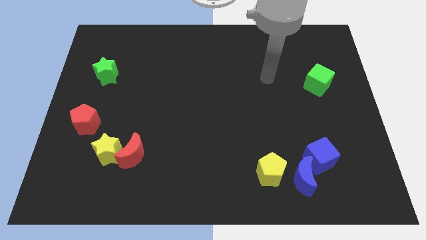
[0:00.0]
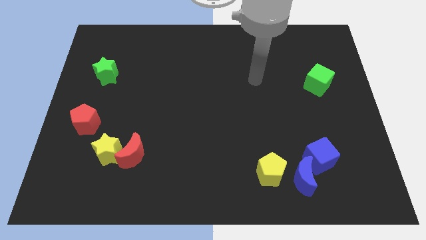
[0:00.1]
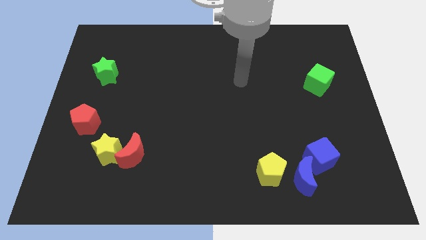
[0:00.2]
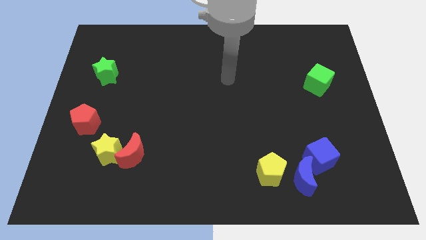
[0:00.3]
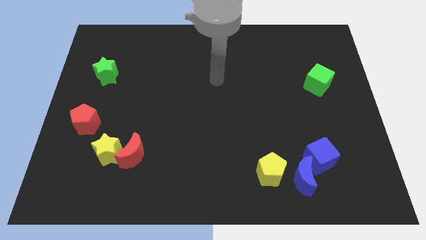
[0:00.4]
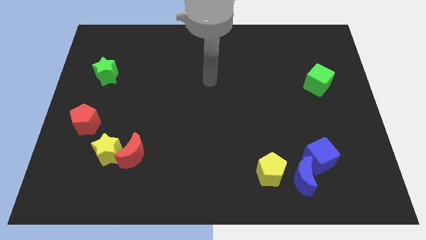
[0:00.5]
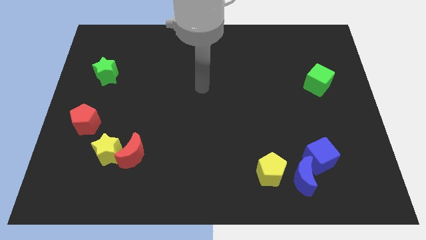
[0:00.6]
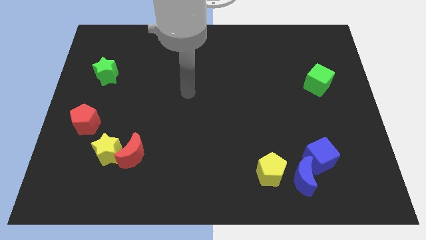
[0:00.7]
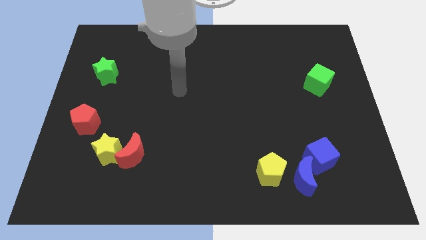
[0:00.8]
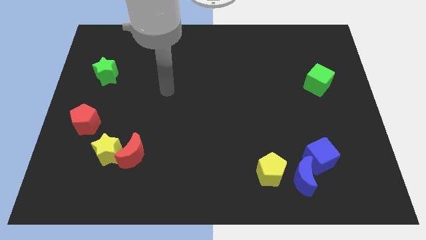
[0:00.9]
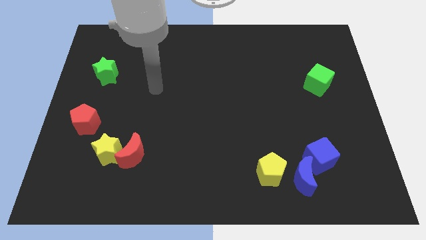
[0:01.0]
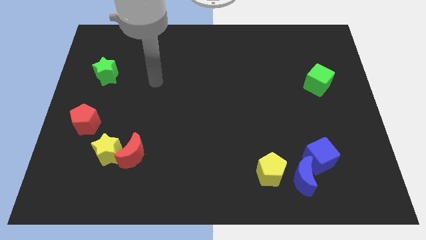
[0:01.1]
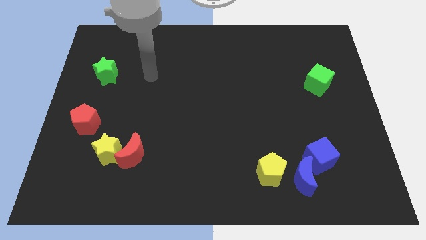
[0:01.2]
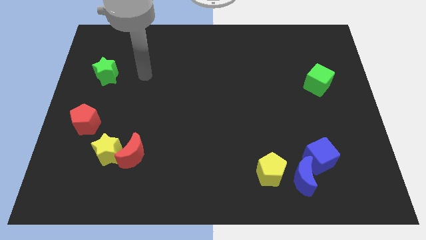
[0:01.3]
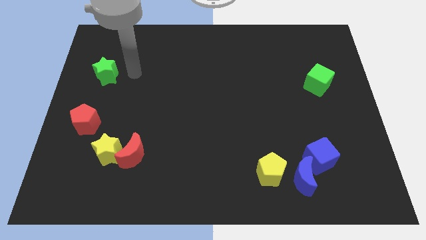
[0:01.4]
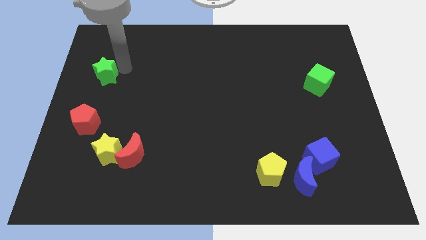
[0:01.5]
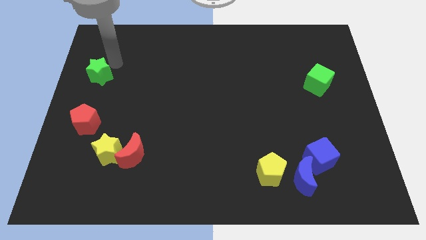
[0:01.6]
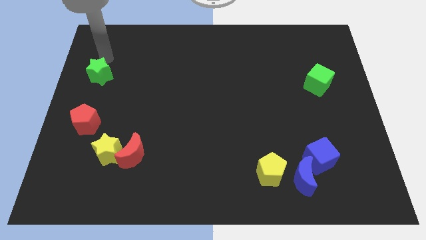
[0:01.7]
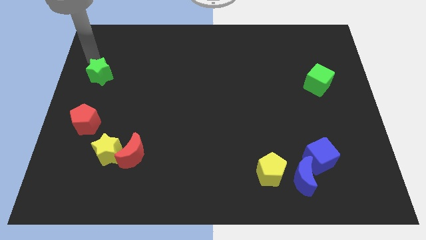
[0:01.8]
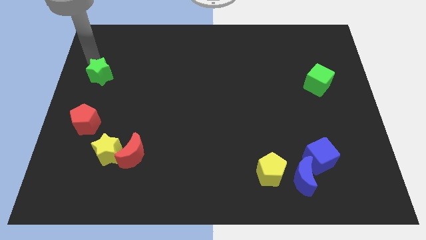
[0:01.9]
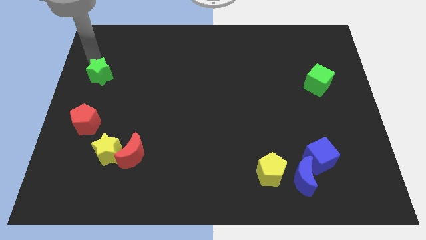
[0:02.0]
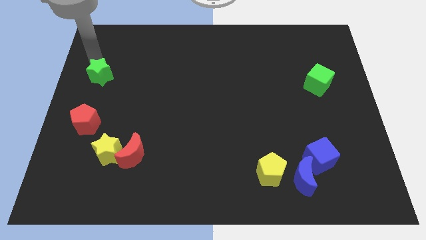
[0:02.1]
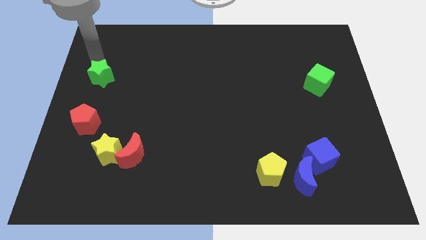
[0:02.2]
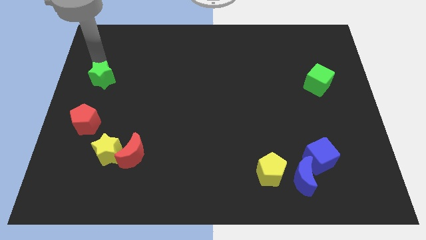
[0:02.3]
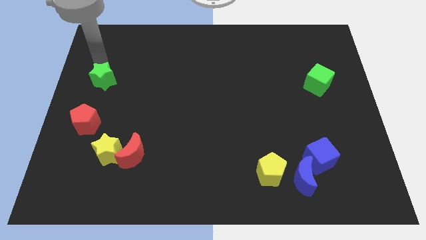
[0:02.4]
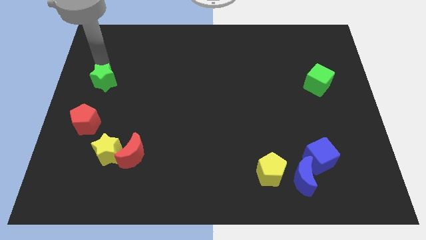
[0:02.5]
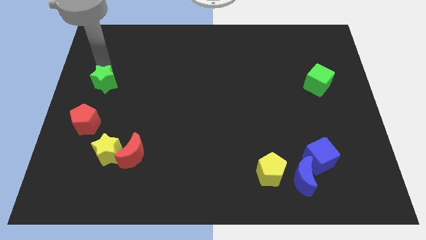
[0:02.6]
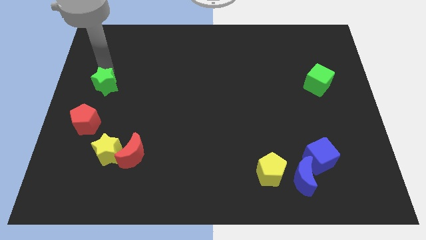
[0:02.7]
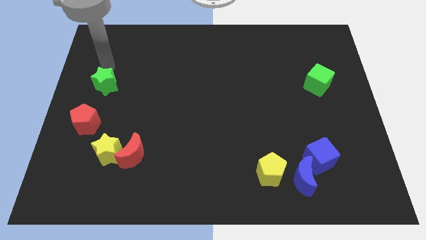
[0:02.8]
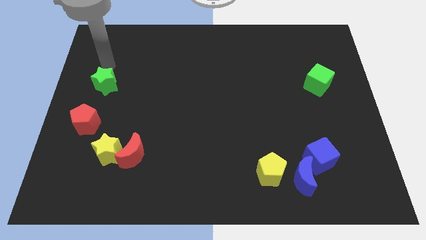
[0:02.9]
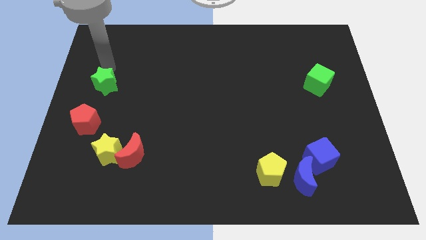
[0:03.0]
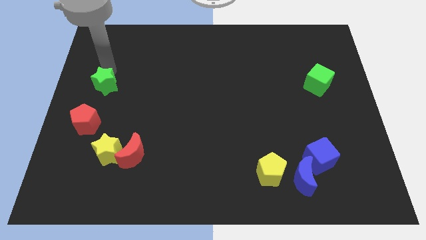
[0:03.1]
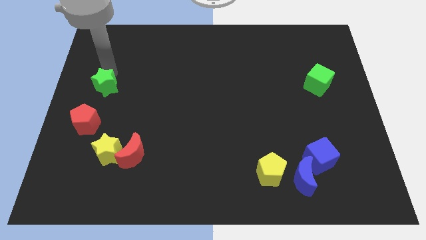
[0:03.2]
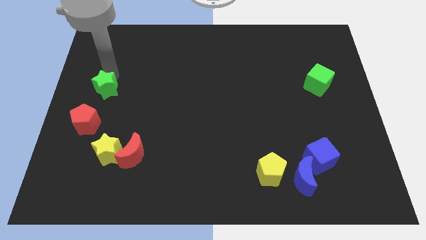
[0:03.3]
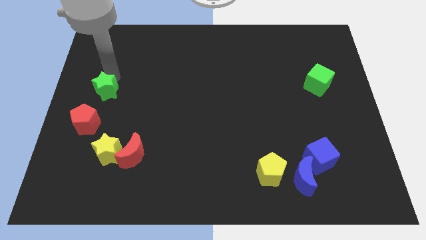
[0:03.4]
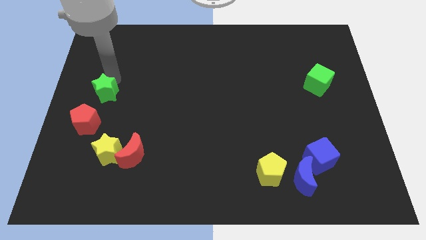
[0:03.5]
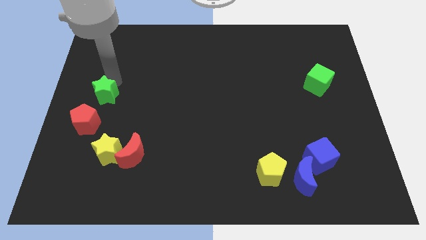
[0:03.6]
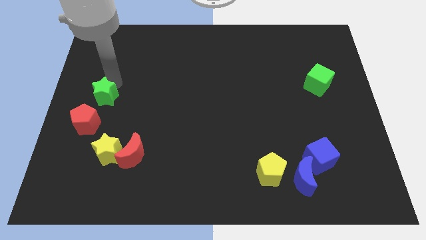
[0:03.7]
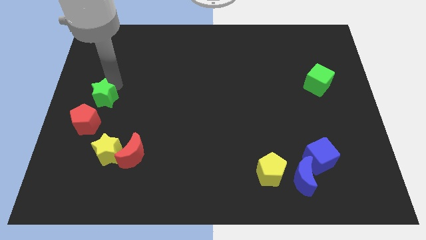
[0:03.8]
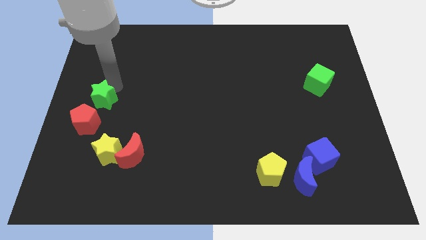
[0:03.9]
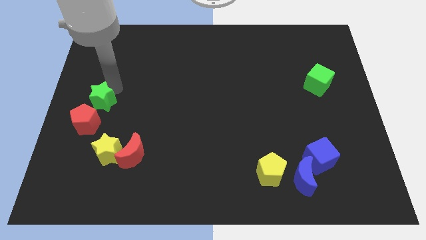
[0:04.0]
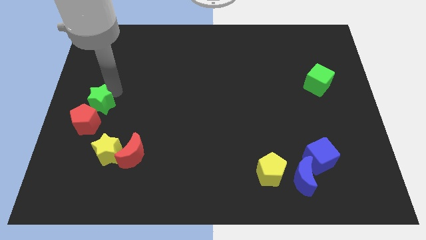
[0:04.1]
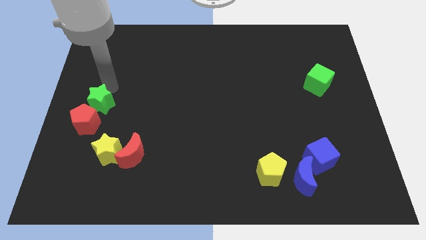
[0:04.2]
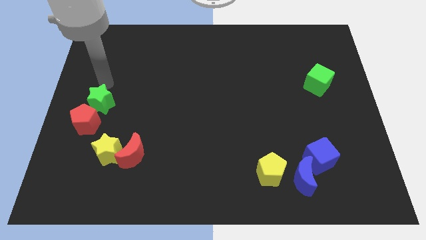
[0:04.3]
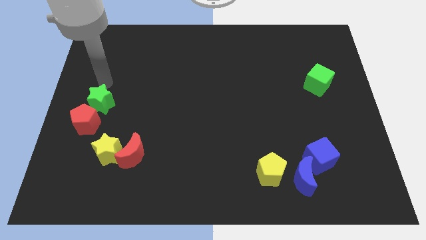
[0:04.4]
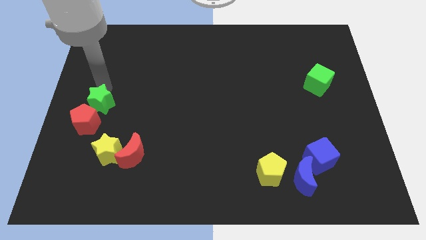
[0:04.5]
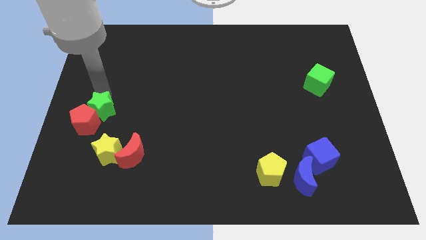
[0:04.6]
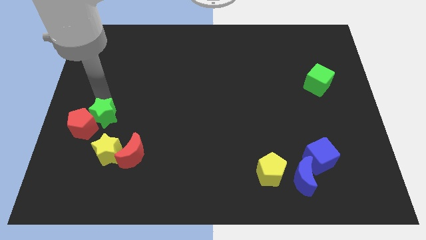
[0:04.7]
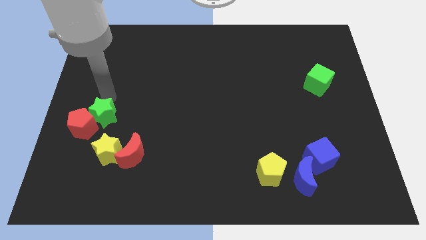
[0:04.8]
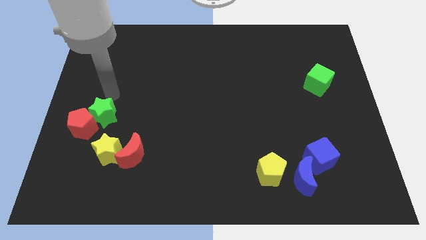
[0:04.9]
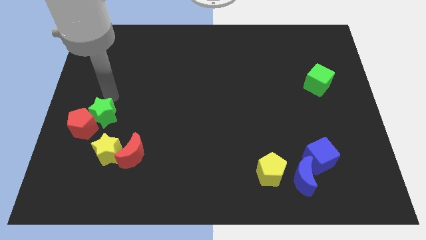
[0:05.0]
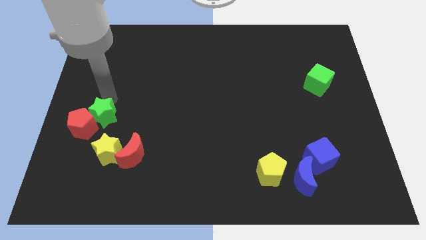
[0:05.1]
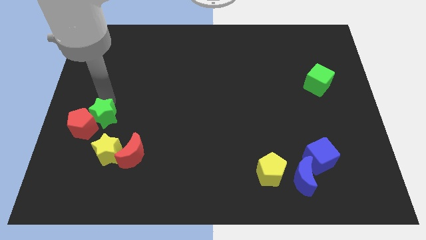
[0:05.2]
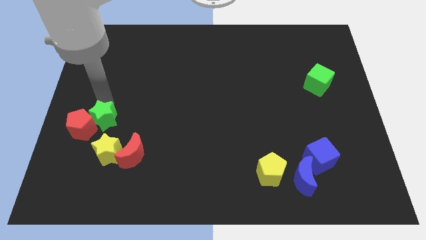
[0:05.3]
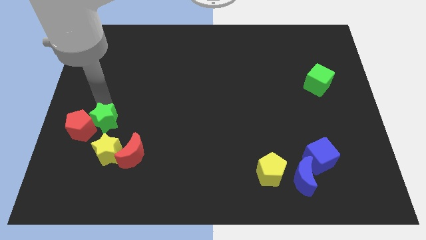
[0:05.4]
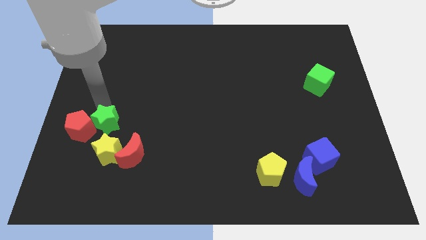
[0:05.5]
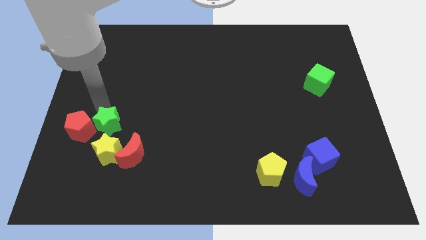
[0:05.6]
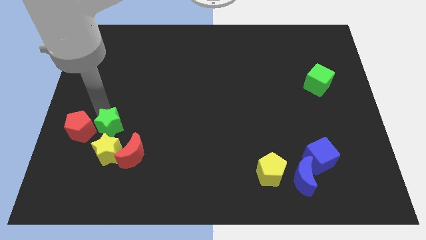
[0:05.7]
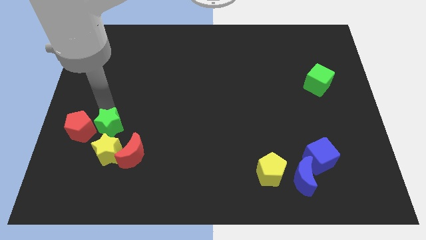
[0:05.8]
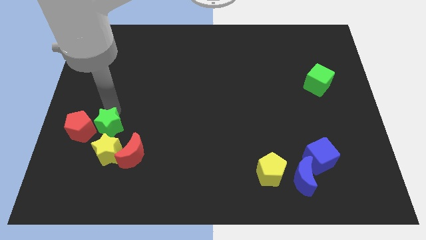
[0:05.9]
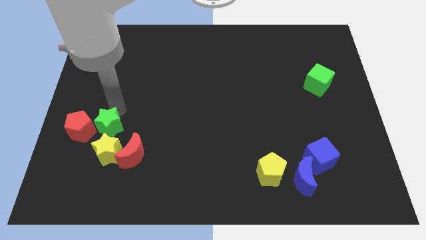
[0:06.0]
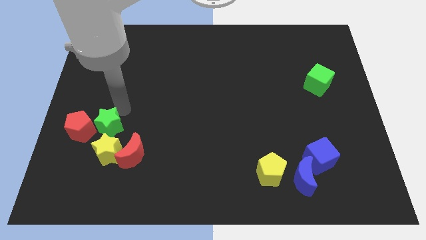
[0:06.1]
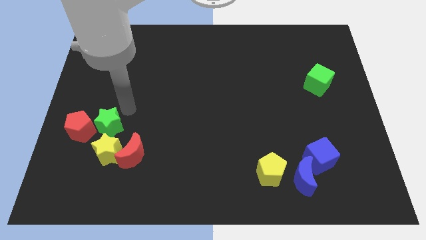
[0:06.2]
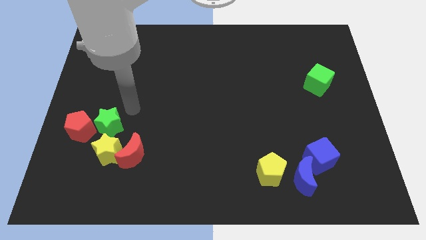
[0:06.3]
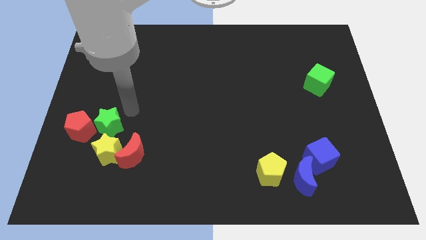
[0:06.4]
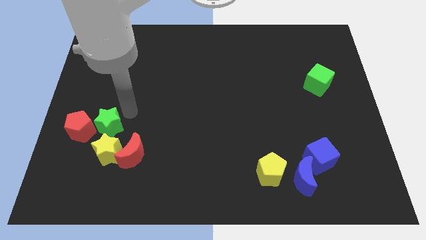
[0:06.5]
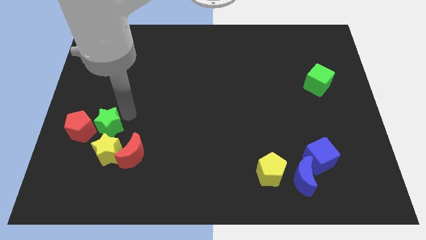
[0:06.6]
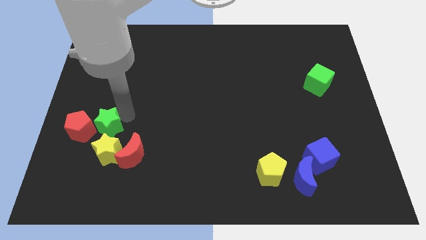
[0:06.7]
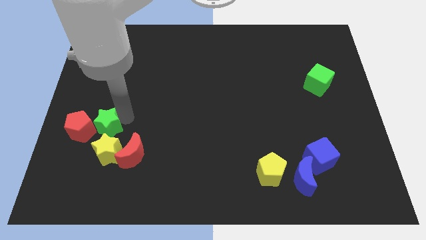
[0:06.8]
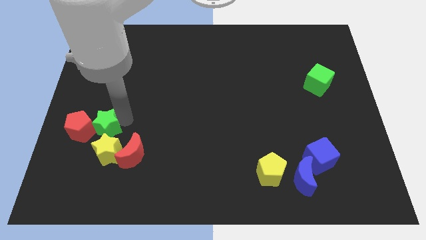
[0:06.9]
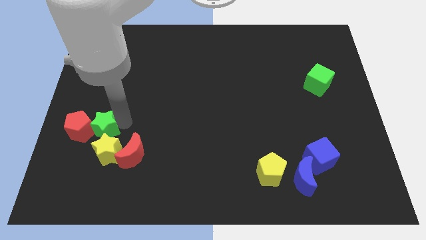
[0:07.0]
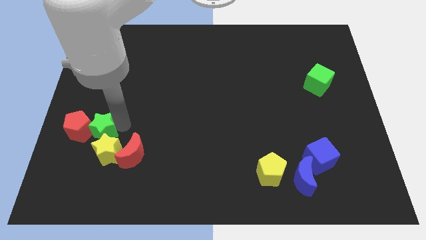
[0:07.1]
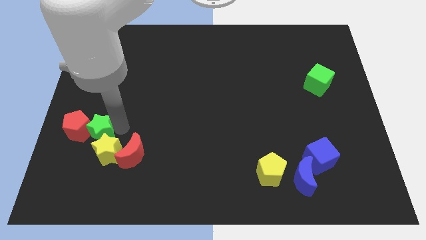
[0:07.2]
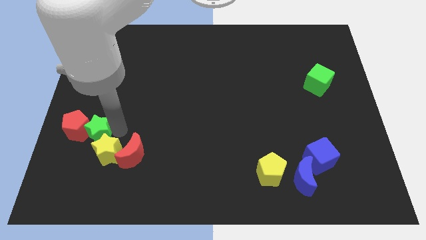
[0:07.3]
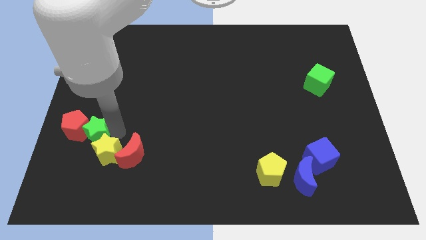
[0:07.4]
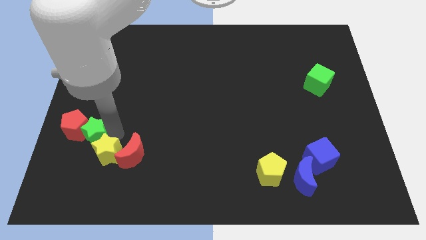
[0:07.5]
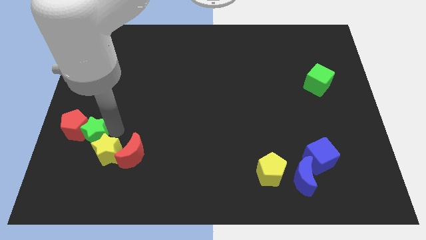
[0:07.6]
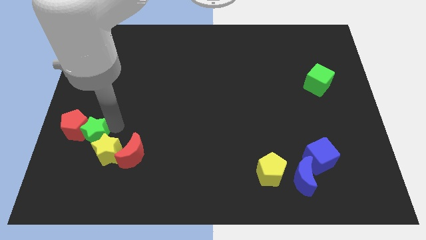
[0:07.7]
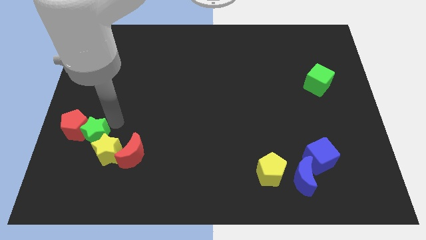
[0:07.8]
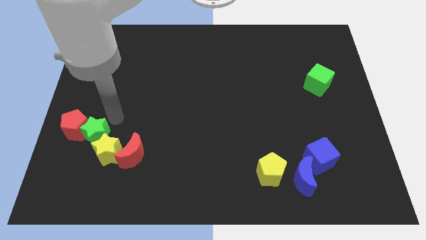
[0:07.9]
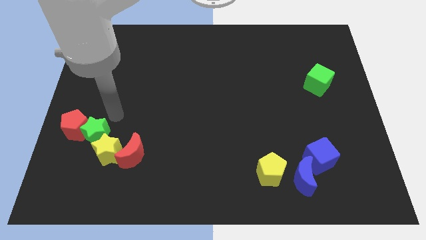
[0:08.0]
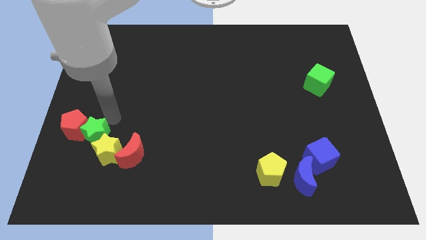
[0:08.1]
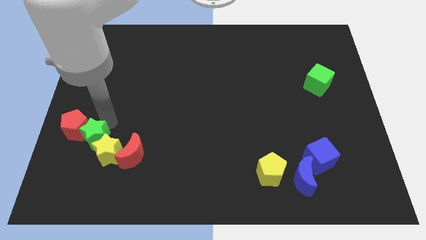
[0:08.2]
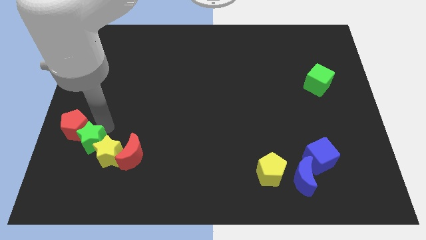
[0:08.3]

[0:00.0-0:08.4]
slide the green star to the bottom of the red pentagon
